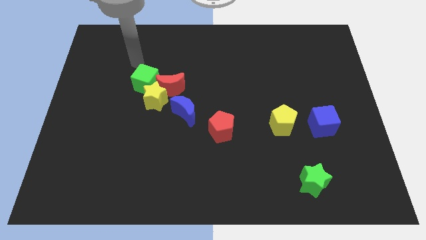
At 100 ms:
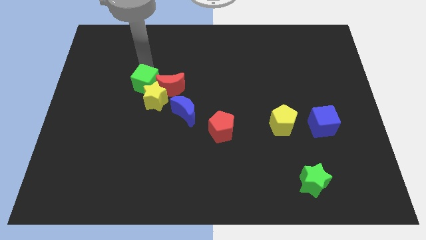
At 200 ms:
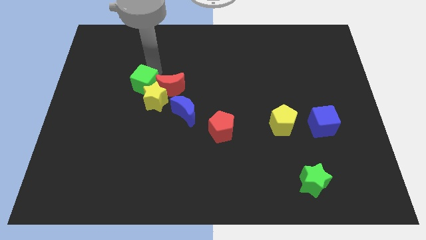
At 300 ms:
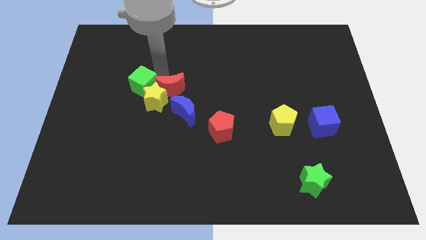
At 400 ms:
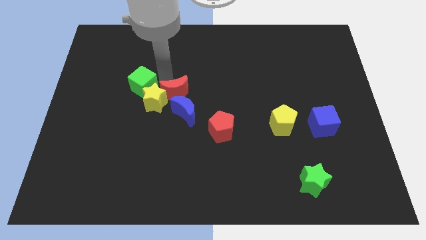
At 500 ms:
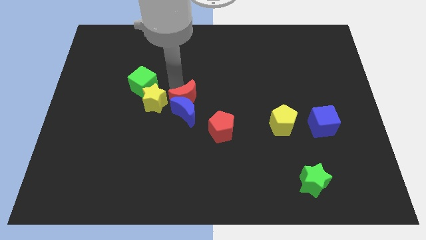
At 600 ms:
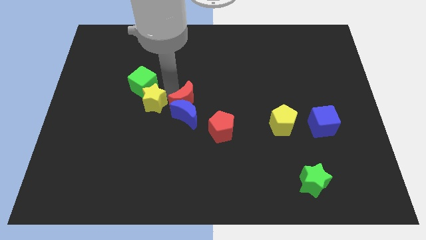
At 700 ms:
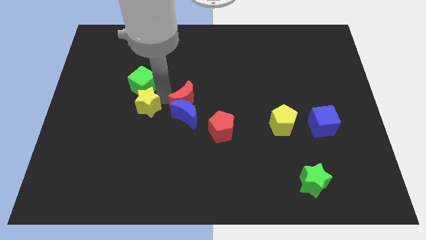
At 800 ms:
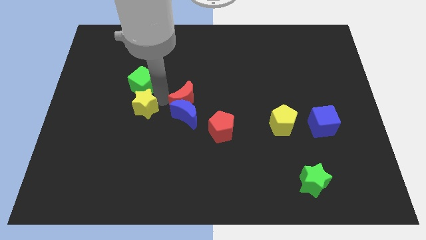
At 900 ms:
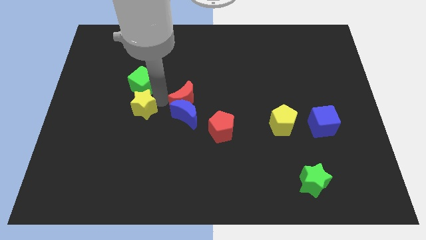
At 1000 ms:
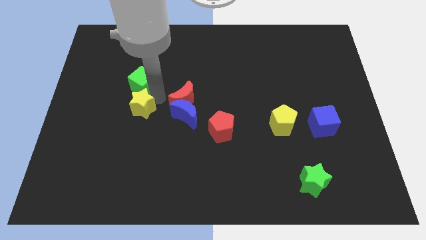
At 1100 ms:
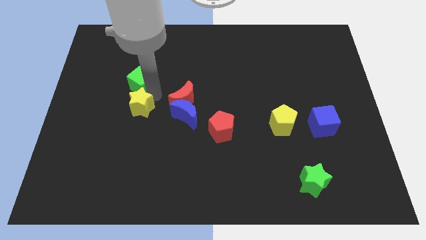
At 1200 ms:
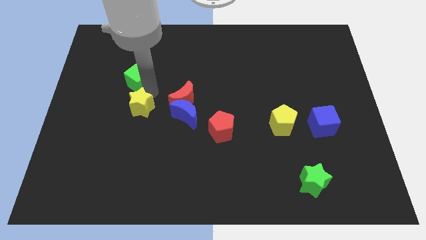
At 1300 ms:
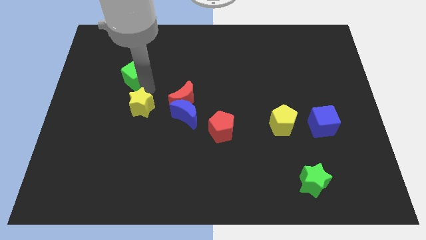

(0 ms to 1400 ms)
separate the green cube from the yellow star and red moon

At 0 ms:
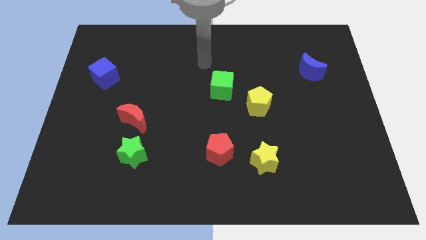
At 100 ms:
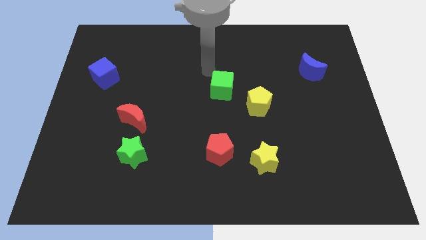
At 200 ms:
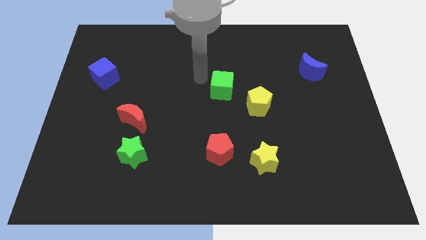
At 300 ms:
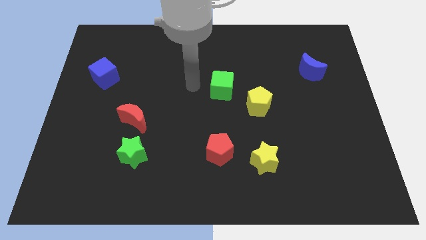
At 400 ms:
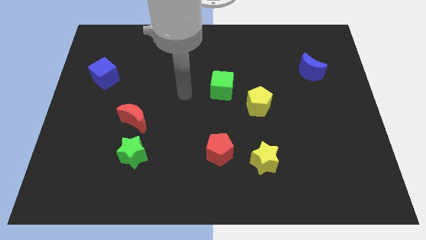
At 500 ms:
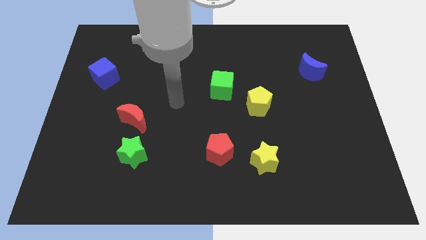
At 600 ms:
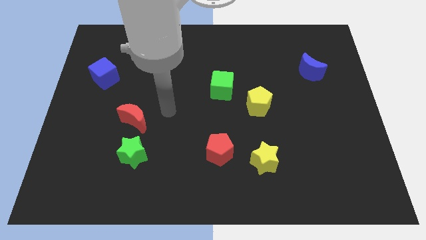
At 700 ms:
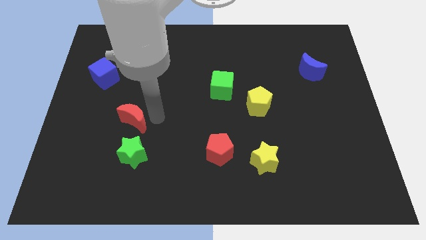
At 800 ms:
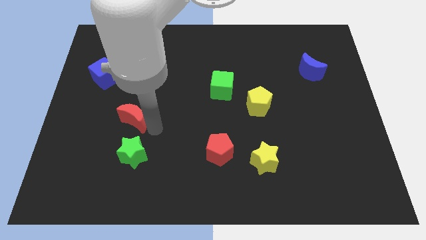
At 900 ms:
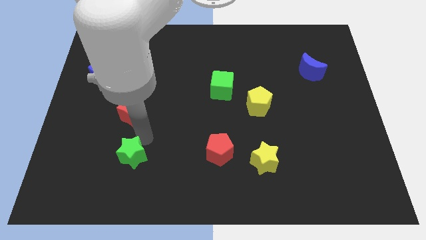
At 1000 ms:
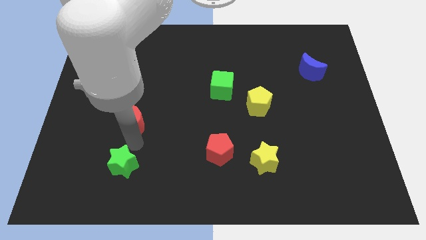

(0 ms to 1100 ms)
separate the red moon from the green star

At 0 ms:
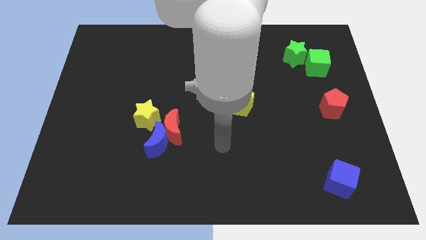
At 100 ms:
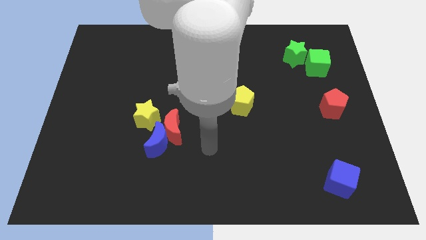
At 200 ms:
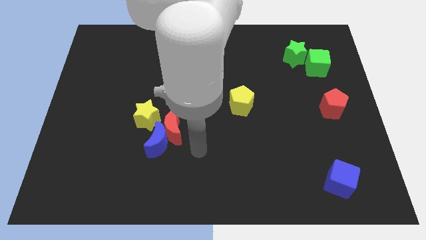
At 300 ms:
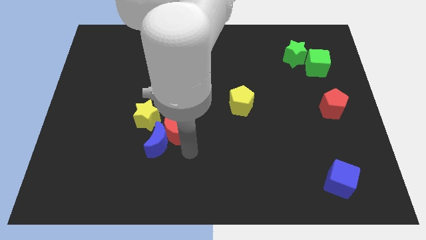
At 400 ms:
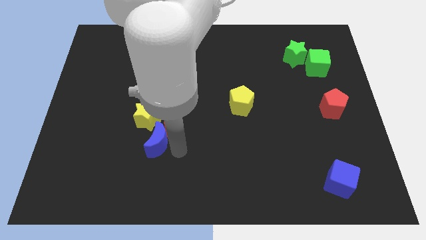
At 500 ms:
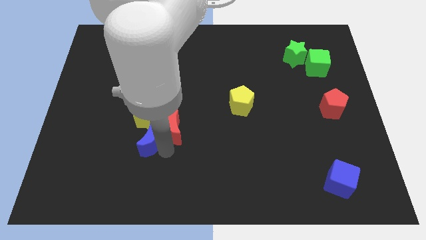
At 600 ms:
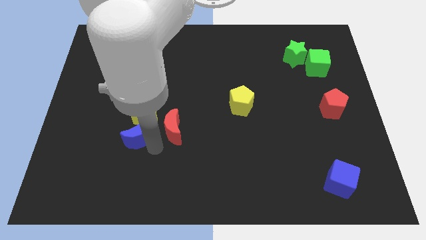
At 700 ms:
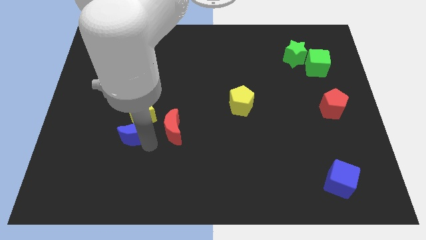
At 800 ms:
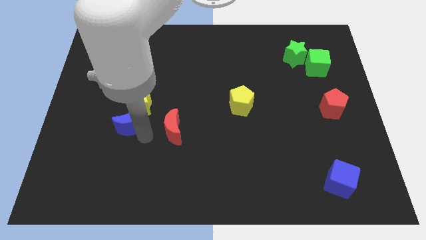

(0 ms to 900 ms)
separate the red moon from the blue moon and yellow star

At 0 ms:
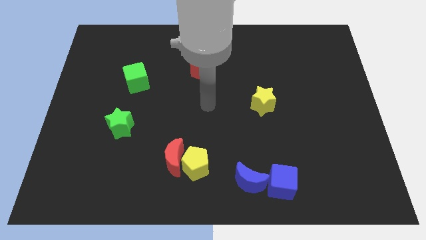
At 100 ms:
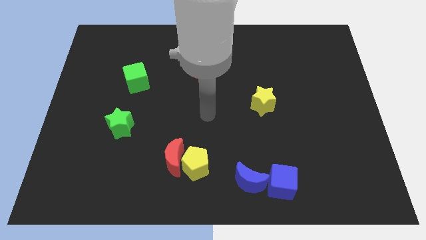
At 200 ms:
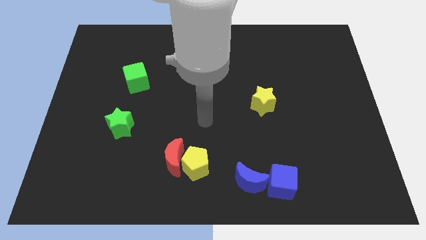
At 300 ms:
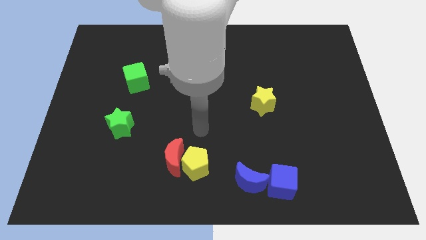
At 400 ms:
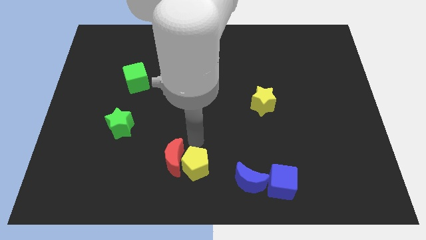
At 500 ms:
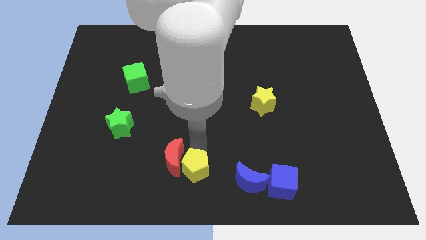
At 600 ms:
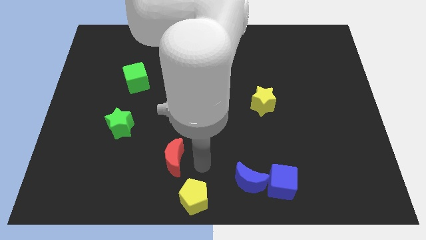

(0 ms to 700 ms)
separate the red moon from the yellow pentagon

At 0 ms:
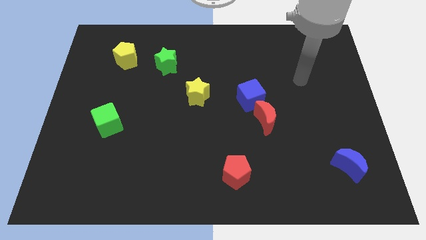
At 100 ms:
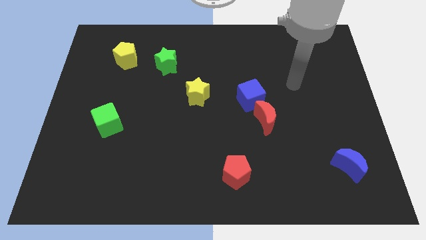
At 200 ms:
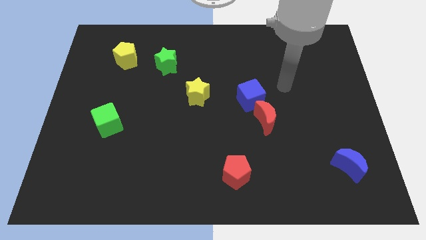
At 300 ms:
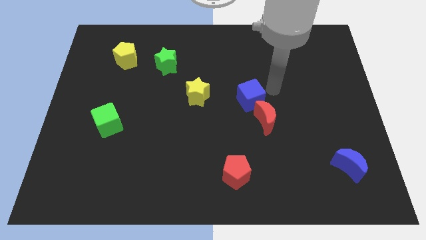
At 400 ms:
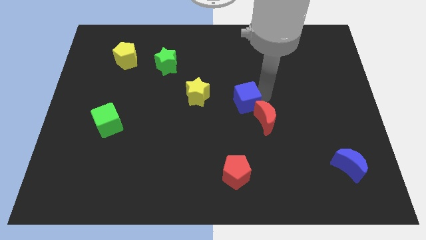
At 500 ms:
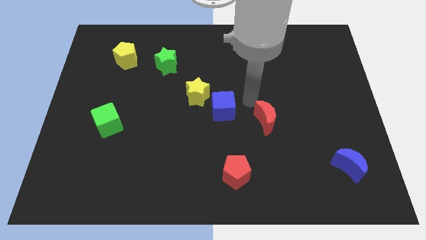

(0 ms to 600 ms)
separate the red moon from the blue cube

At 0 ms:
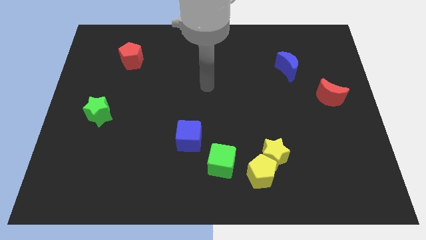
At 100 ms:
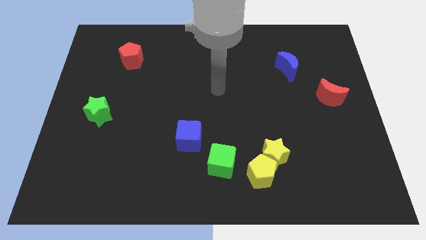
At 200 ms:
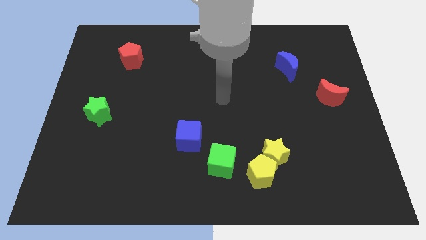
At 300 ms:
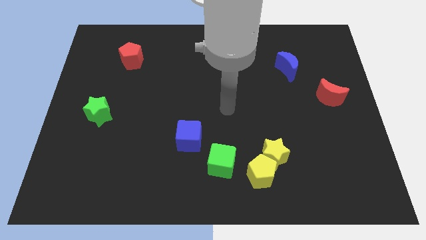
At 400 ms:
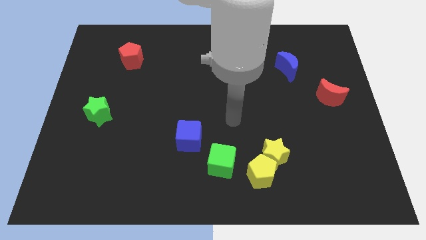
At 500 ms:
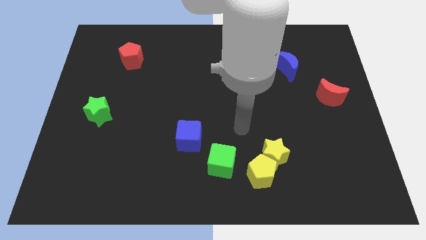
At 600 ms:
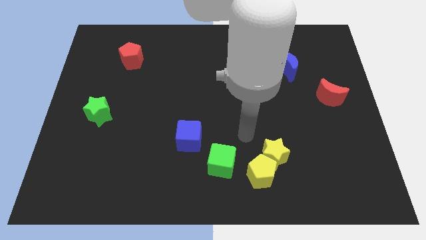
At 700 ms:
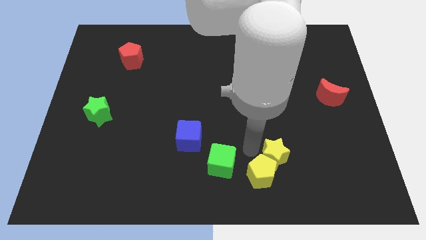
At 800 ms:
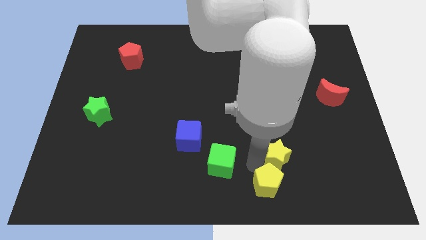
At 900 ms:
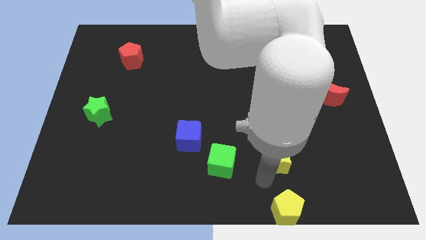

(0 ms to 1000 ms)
pull the yellow star apart from the yellow pentagon

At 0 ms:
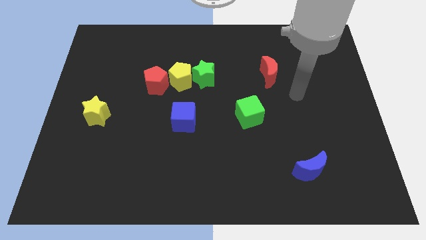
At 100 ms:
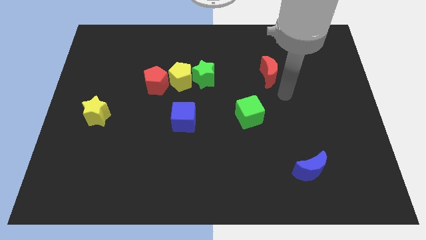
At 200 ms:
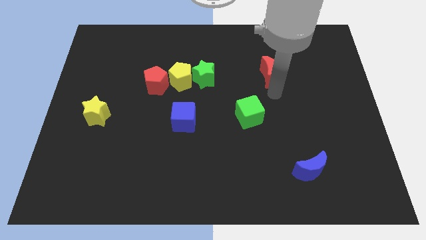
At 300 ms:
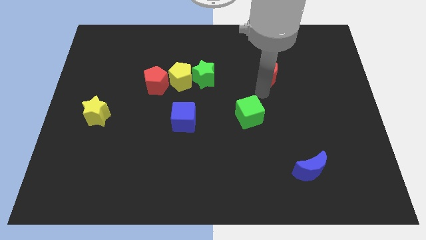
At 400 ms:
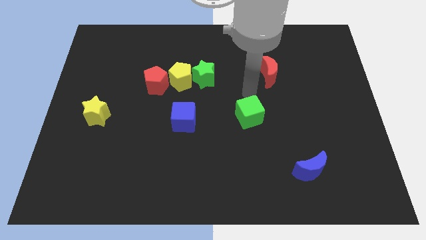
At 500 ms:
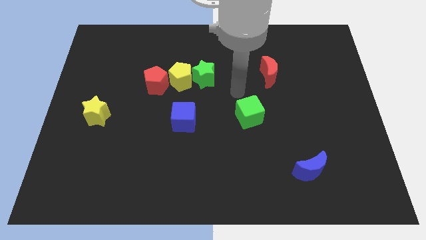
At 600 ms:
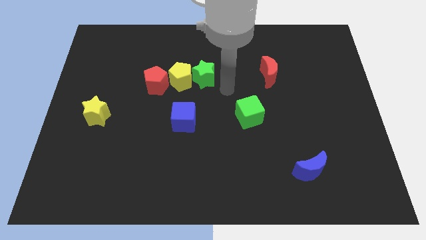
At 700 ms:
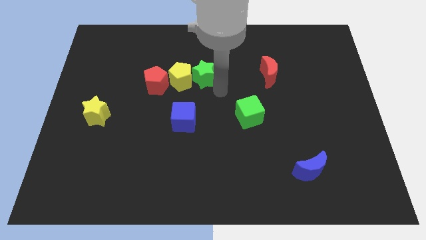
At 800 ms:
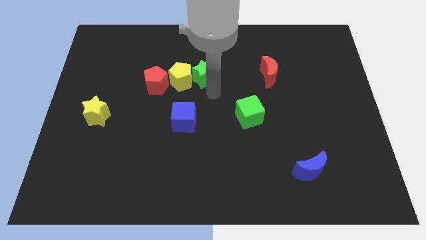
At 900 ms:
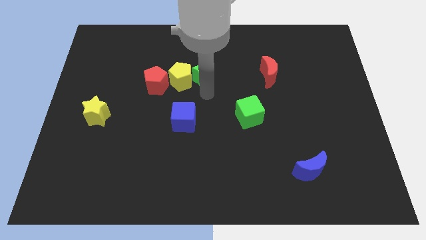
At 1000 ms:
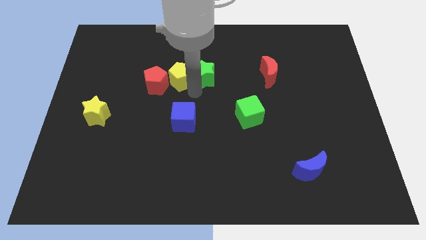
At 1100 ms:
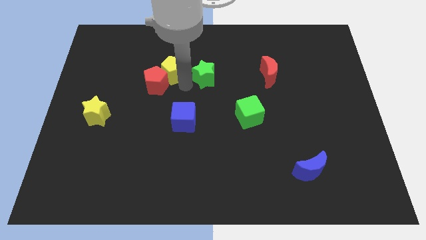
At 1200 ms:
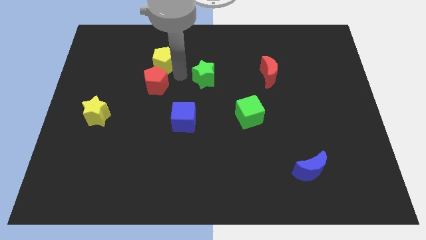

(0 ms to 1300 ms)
separate the green star from the yellow pentagon

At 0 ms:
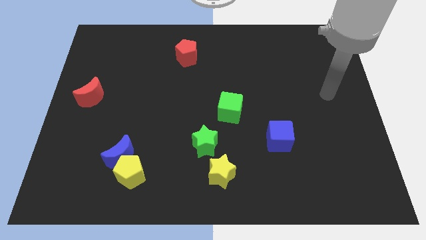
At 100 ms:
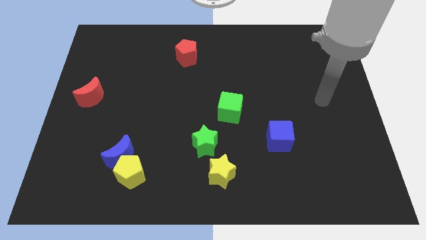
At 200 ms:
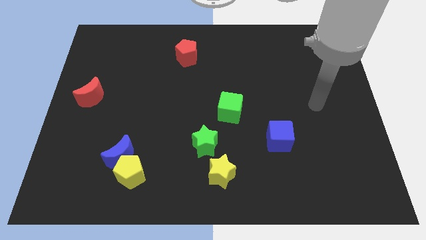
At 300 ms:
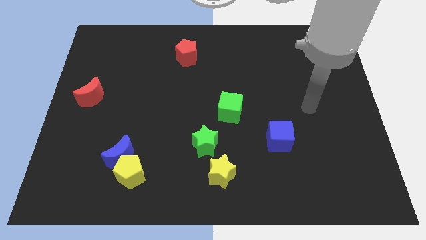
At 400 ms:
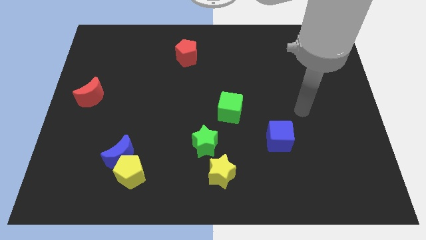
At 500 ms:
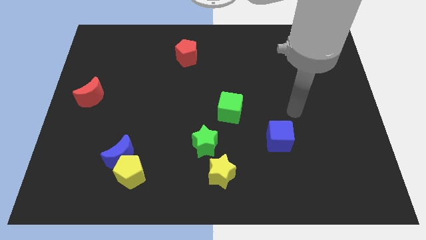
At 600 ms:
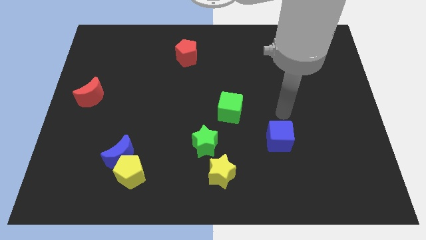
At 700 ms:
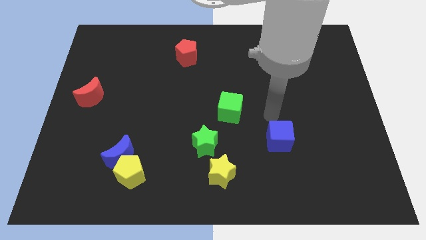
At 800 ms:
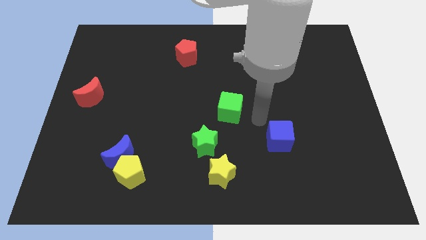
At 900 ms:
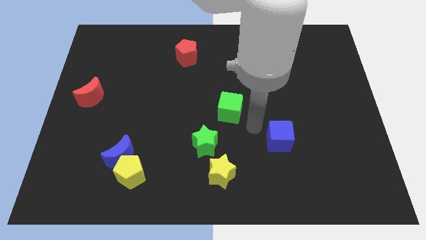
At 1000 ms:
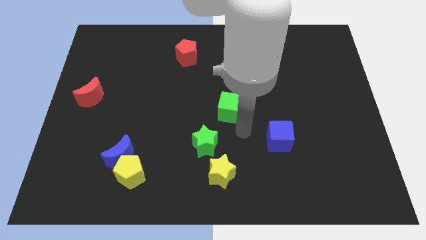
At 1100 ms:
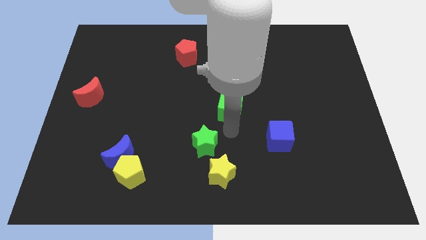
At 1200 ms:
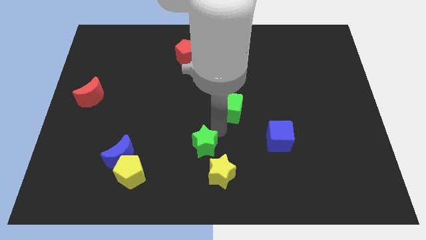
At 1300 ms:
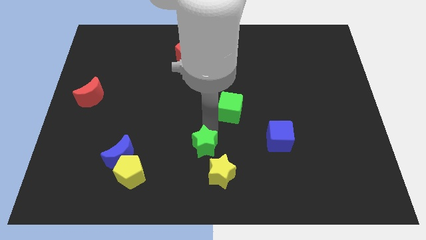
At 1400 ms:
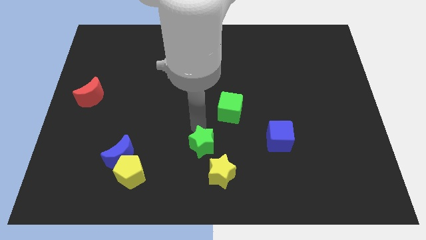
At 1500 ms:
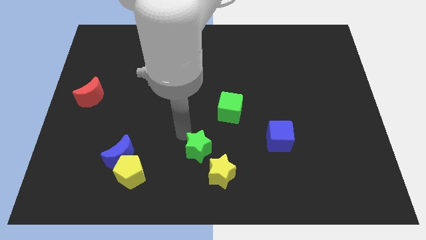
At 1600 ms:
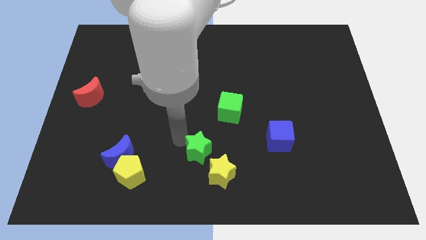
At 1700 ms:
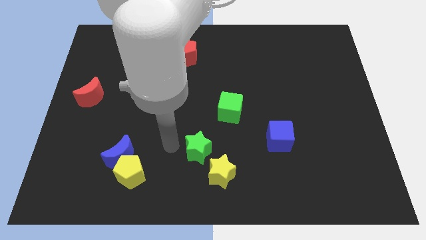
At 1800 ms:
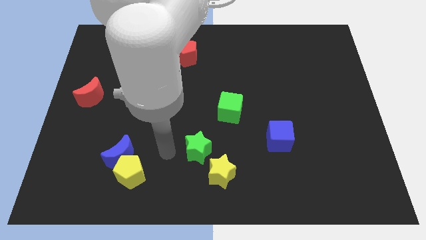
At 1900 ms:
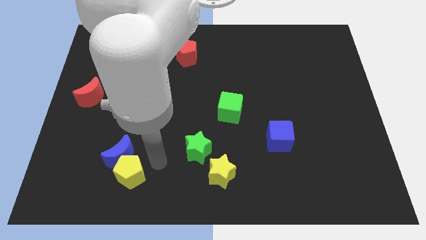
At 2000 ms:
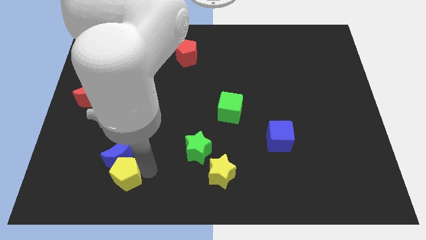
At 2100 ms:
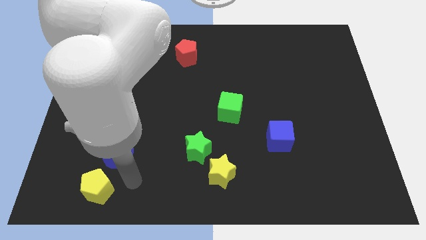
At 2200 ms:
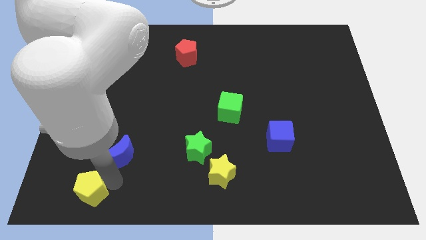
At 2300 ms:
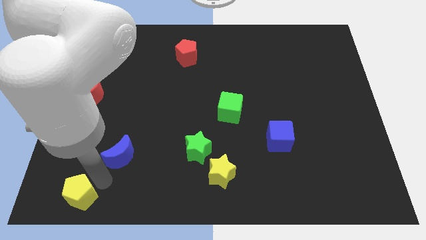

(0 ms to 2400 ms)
move the blue moon away from the yellow pentagon

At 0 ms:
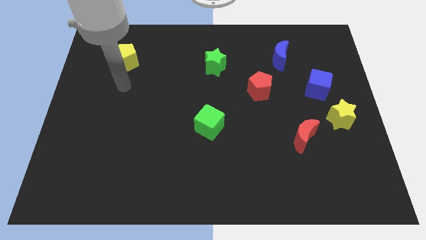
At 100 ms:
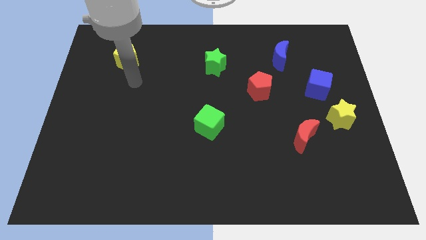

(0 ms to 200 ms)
separate the blue cube from the yellow star
